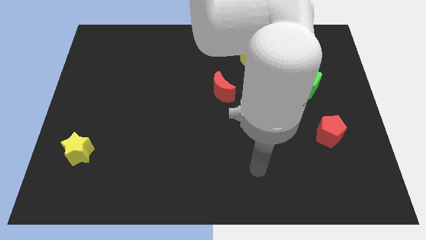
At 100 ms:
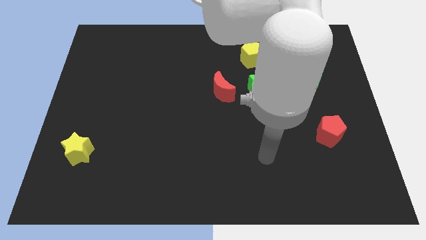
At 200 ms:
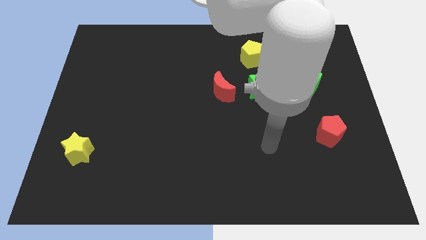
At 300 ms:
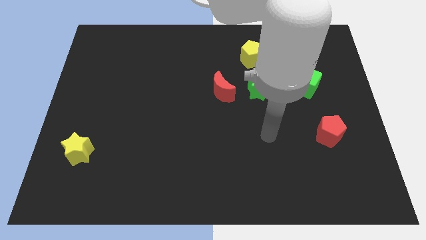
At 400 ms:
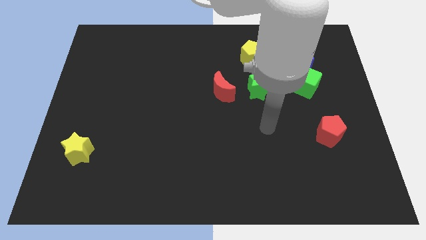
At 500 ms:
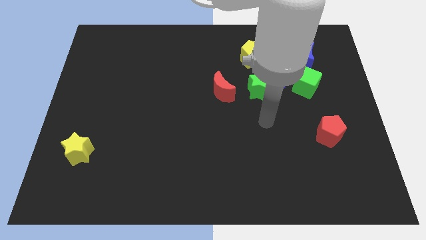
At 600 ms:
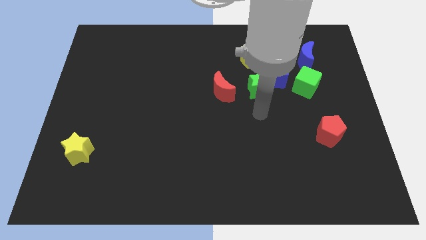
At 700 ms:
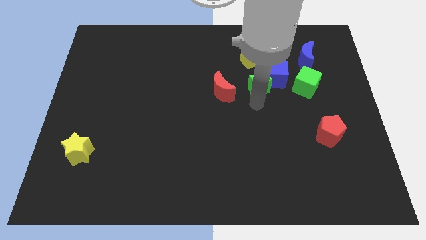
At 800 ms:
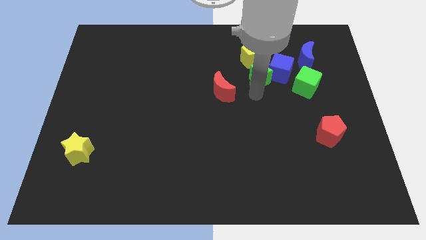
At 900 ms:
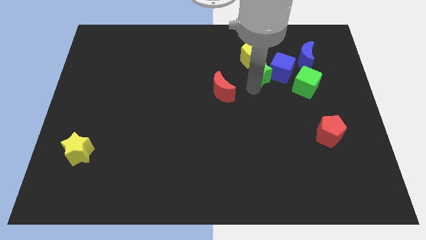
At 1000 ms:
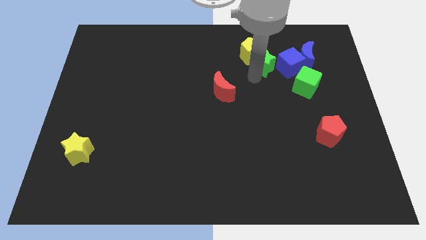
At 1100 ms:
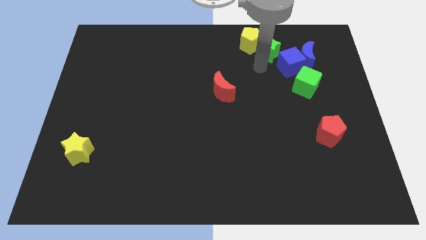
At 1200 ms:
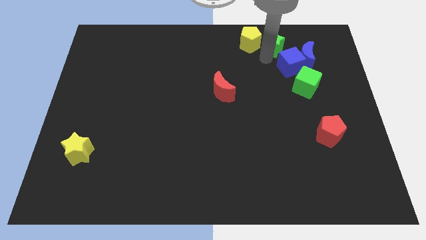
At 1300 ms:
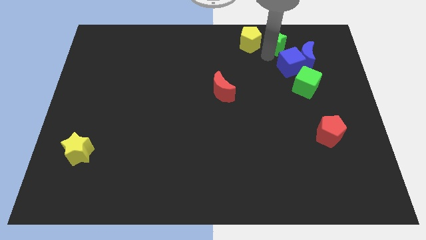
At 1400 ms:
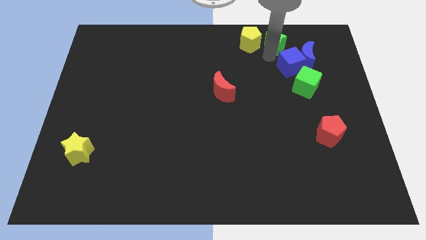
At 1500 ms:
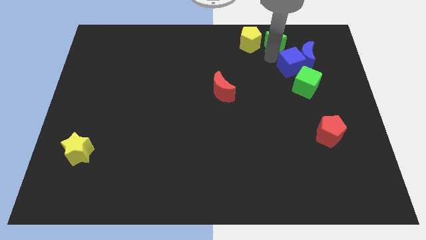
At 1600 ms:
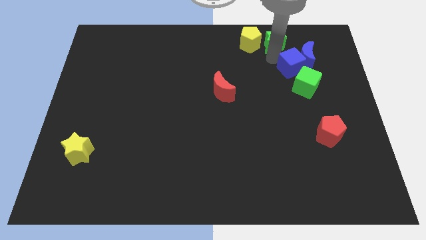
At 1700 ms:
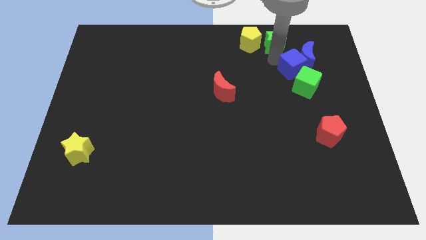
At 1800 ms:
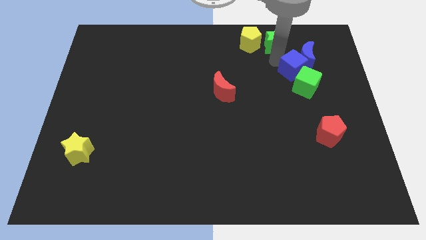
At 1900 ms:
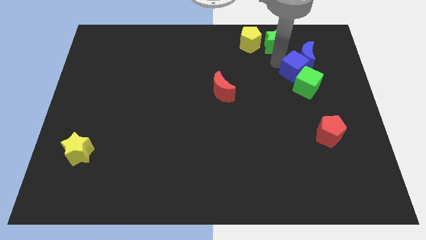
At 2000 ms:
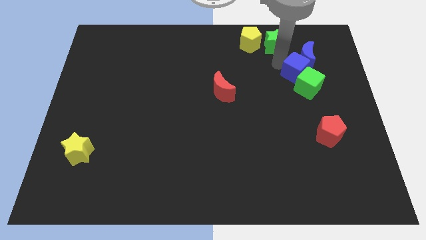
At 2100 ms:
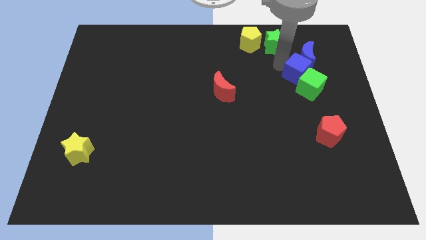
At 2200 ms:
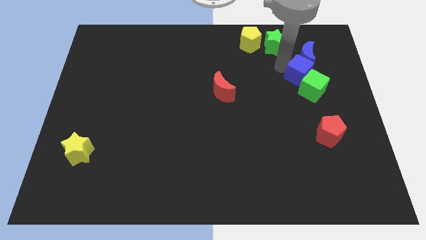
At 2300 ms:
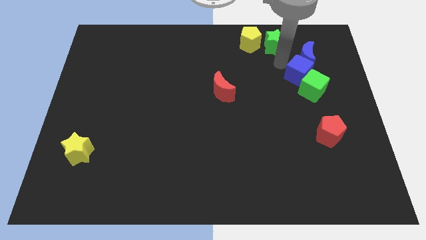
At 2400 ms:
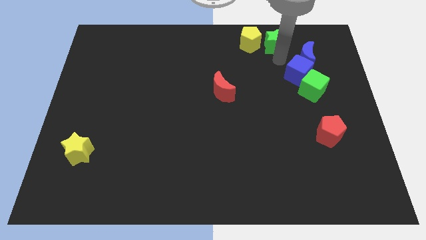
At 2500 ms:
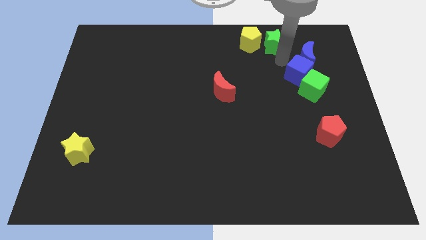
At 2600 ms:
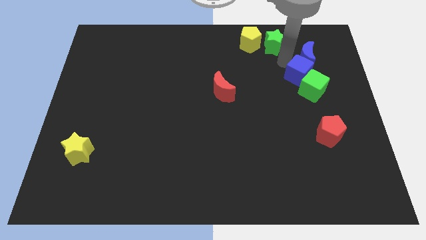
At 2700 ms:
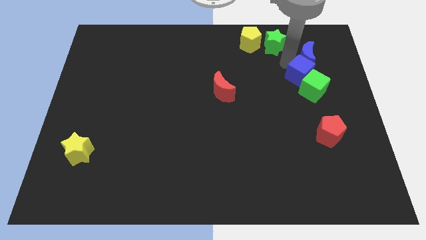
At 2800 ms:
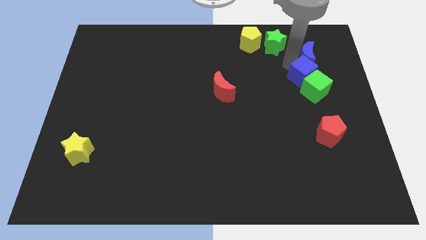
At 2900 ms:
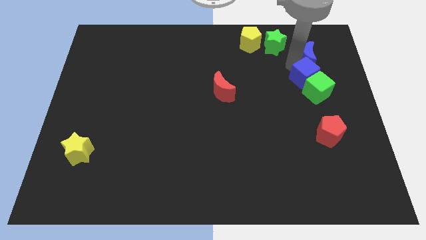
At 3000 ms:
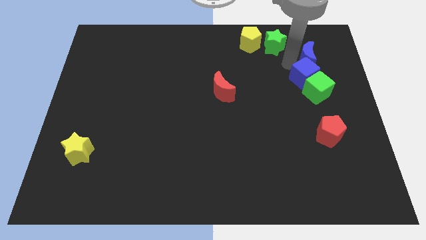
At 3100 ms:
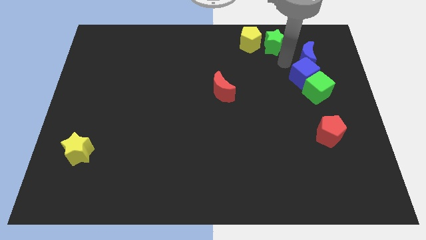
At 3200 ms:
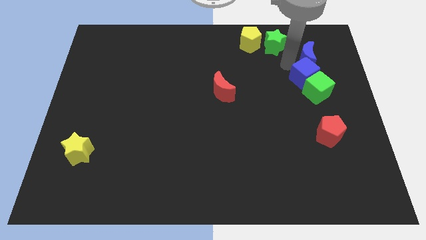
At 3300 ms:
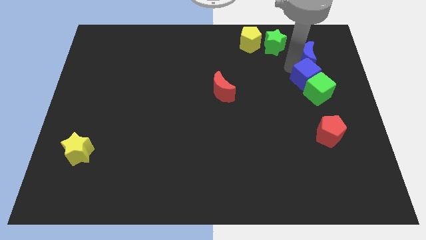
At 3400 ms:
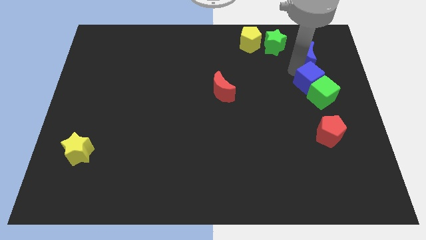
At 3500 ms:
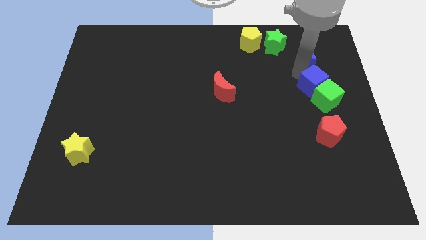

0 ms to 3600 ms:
move the blue cube away from the group of blocks

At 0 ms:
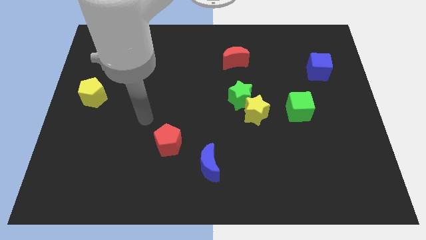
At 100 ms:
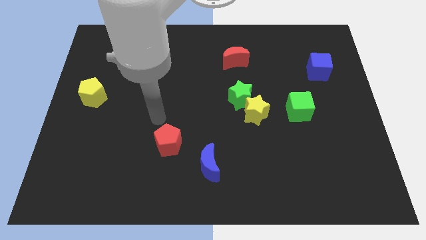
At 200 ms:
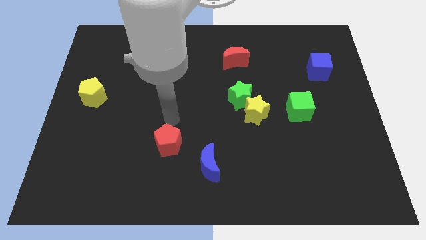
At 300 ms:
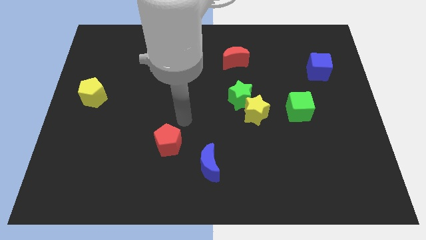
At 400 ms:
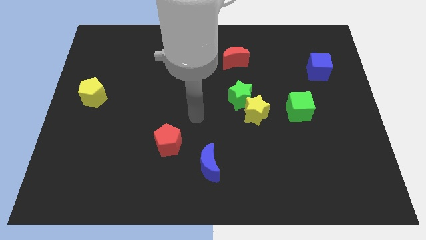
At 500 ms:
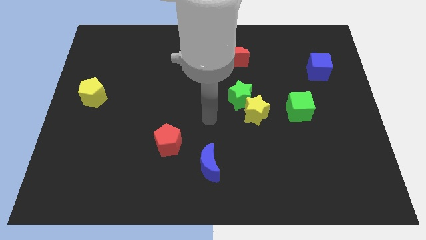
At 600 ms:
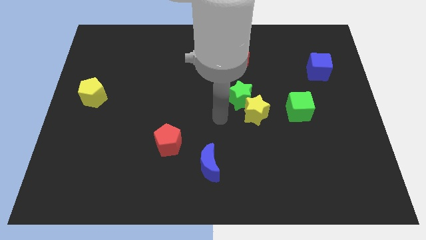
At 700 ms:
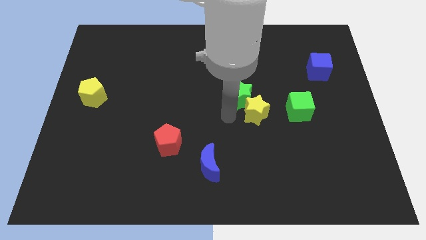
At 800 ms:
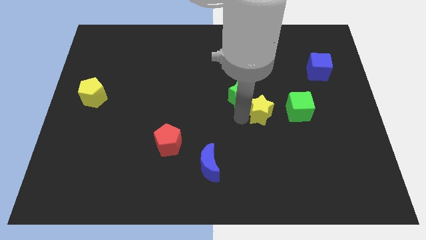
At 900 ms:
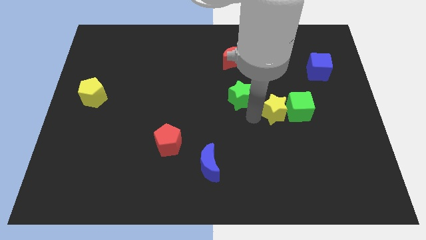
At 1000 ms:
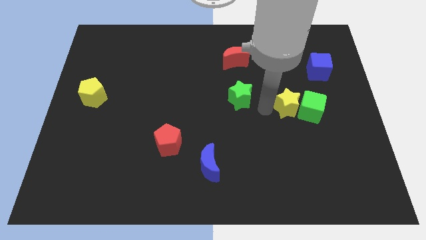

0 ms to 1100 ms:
pull the green star apart from the yellow star

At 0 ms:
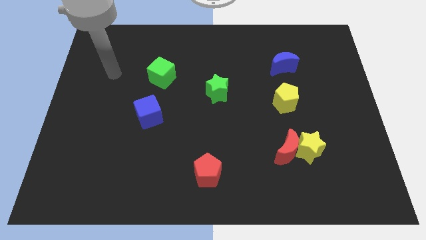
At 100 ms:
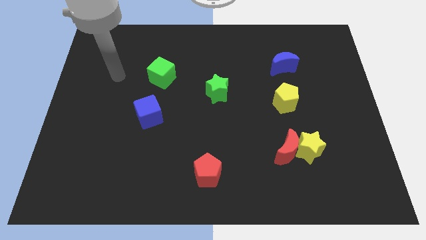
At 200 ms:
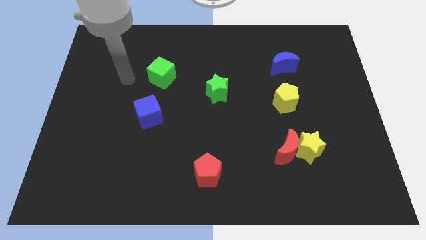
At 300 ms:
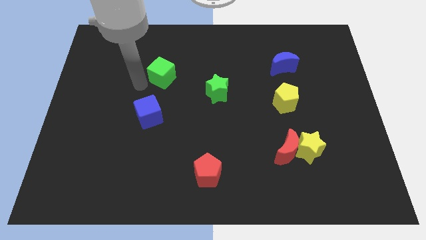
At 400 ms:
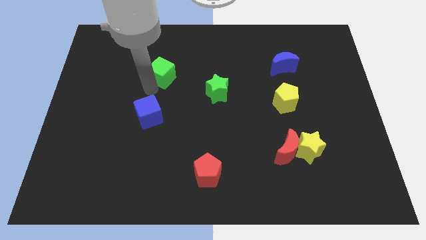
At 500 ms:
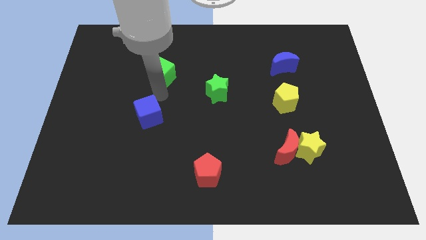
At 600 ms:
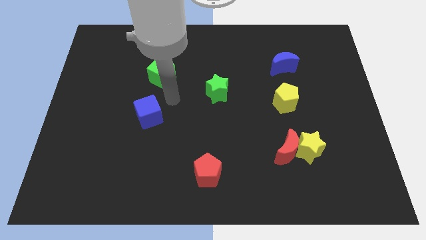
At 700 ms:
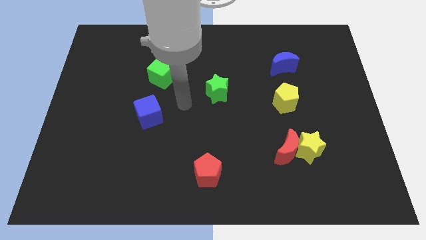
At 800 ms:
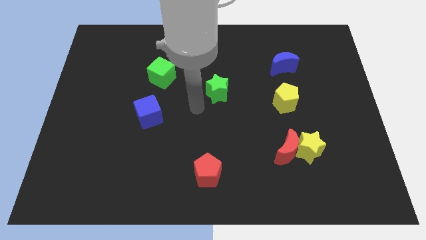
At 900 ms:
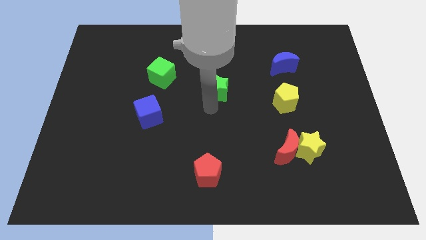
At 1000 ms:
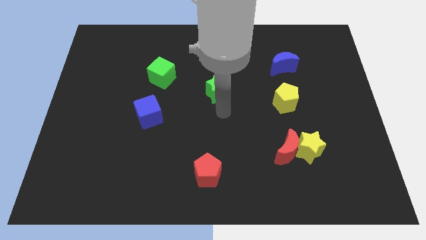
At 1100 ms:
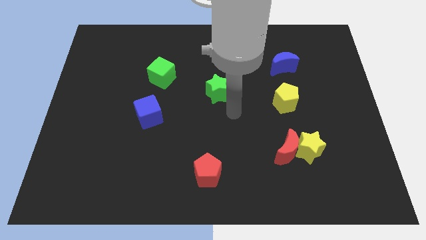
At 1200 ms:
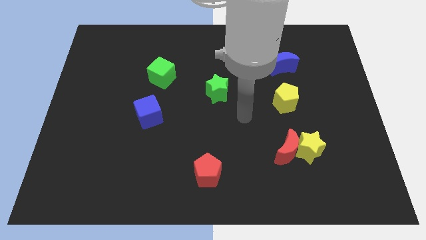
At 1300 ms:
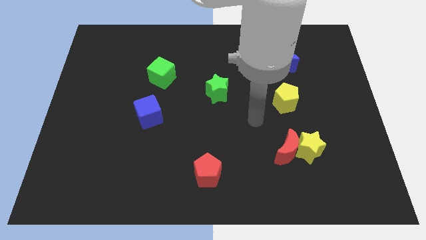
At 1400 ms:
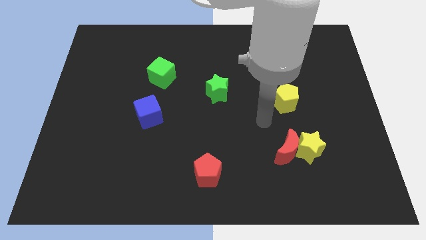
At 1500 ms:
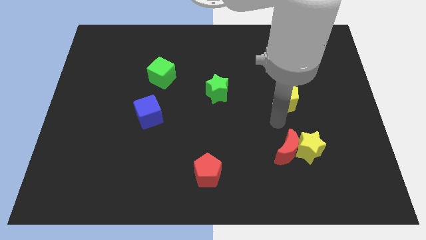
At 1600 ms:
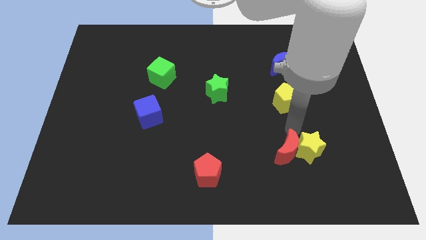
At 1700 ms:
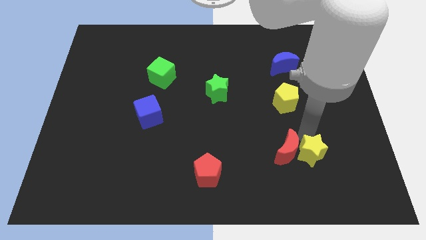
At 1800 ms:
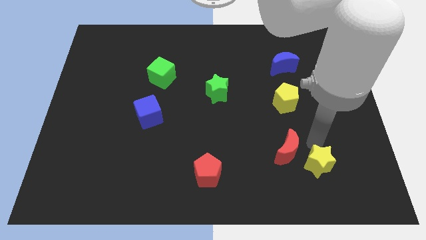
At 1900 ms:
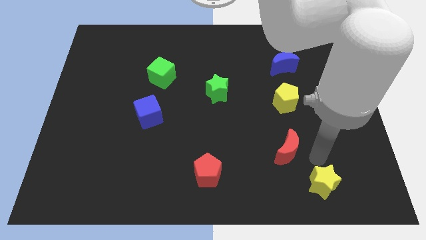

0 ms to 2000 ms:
pull the red moon apart from the yellow star

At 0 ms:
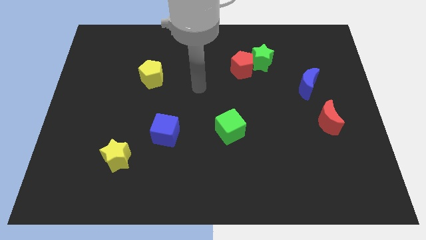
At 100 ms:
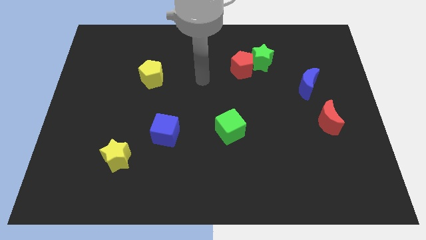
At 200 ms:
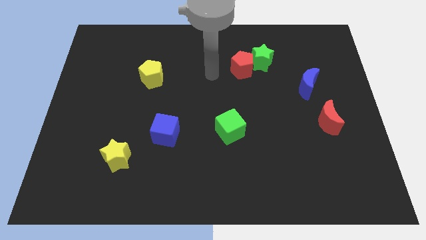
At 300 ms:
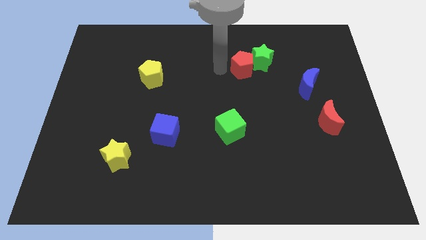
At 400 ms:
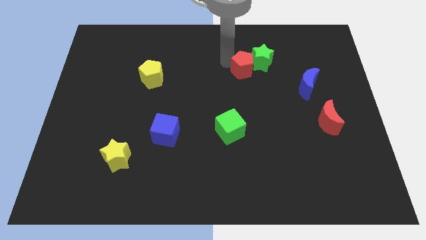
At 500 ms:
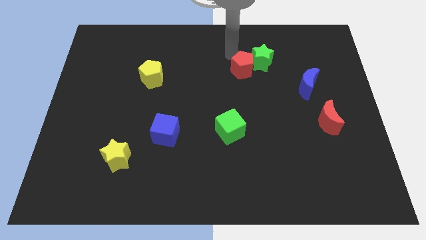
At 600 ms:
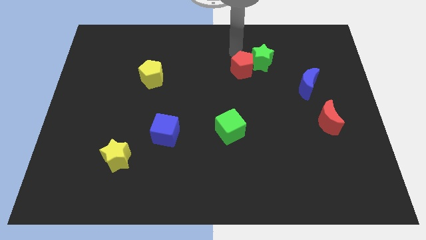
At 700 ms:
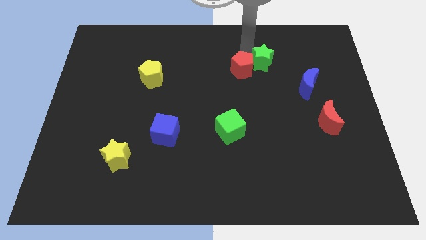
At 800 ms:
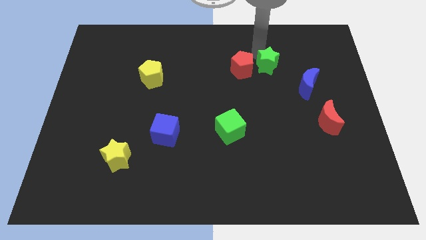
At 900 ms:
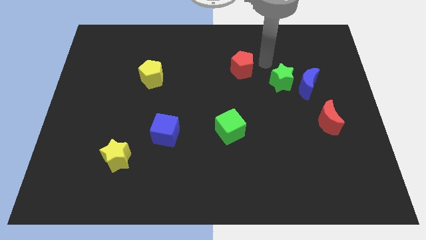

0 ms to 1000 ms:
pull the red pentagon apart from the green star

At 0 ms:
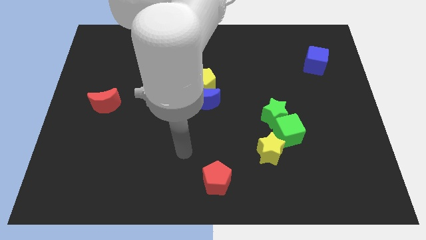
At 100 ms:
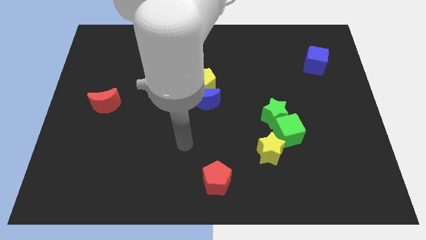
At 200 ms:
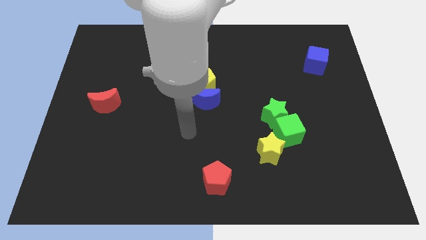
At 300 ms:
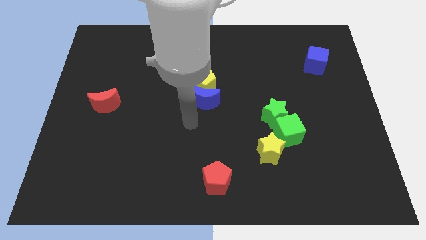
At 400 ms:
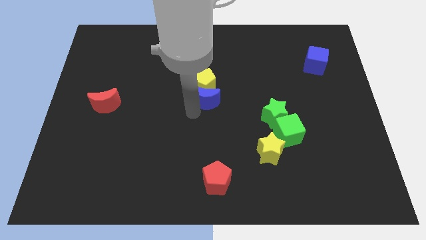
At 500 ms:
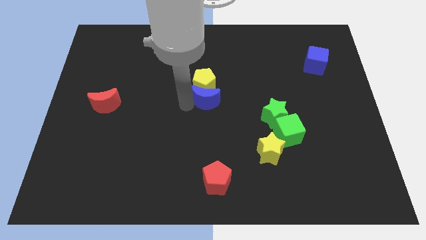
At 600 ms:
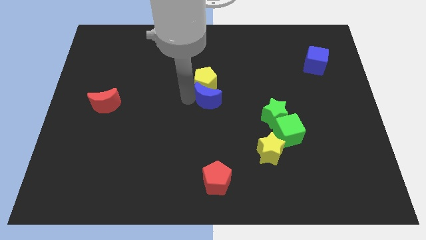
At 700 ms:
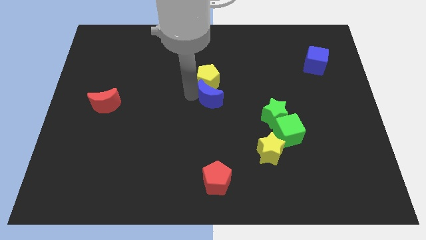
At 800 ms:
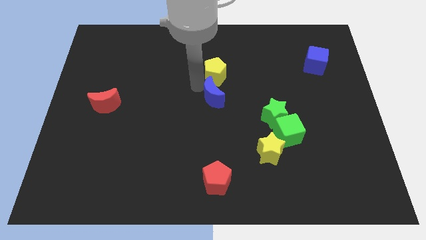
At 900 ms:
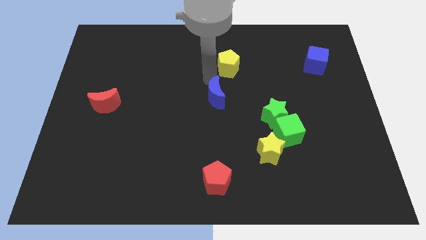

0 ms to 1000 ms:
move the blue moon away from the yellow pentagon

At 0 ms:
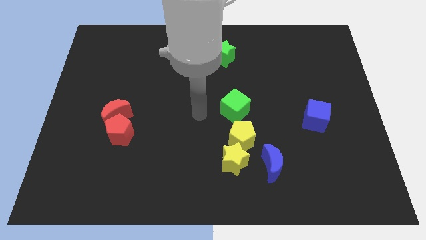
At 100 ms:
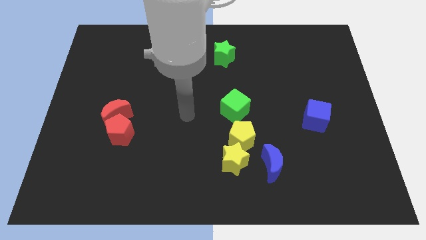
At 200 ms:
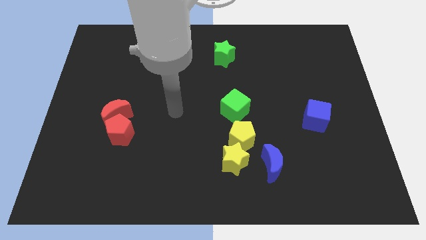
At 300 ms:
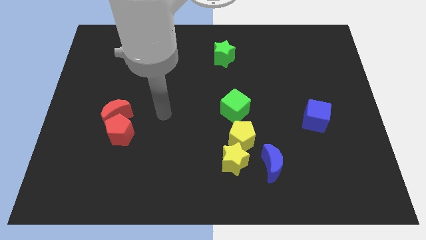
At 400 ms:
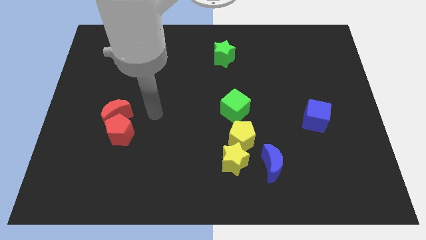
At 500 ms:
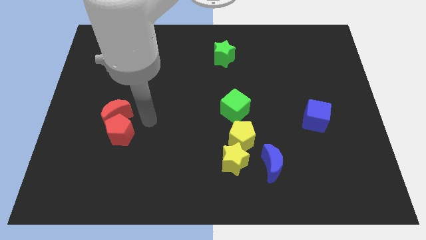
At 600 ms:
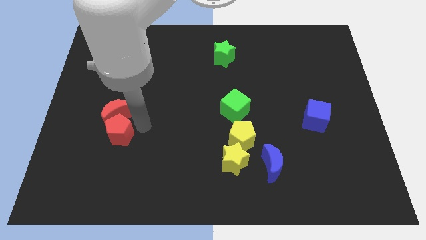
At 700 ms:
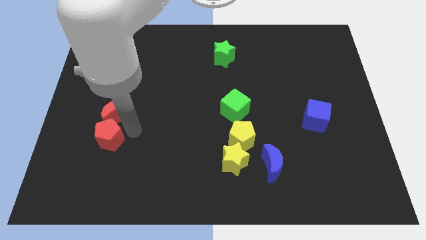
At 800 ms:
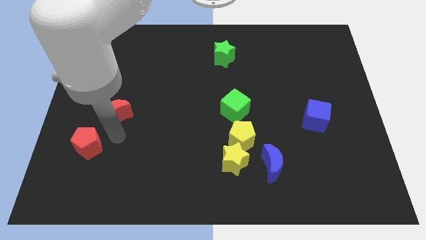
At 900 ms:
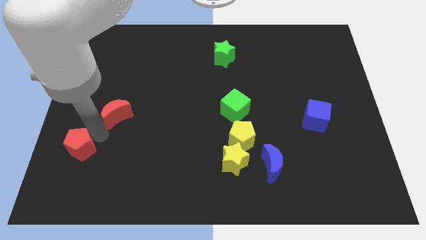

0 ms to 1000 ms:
separate the red moon from the red pentagon
